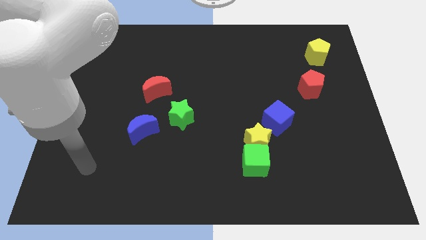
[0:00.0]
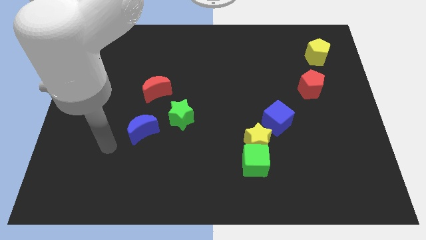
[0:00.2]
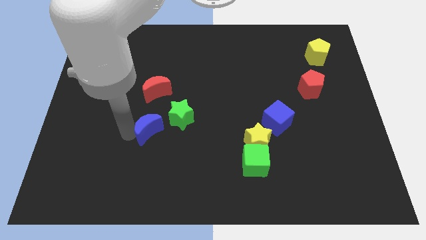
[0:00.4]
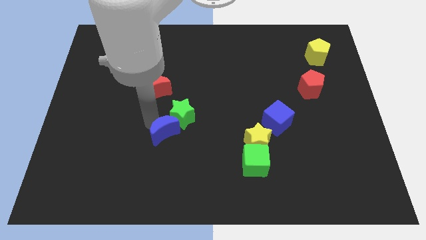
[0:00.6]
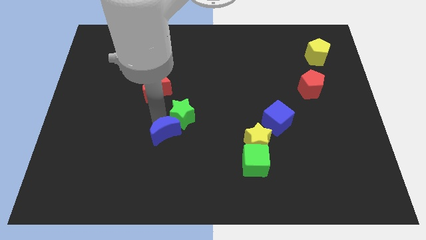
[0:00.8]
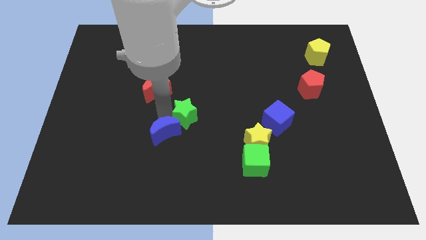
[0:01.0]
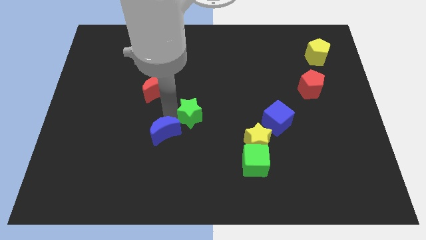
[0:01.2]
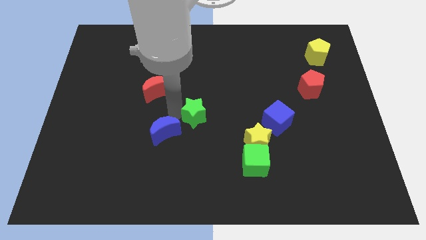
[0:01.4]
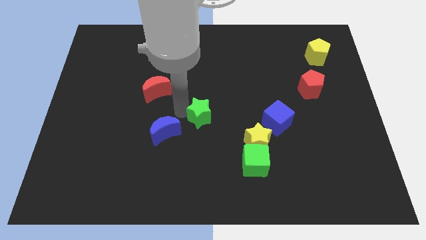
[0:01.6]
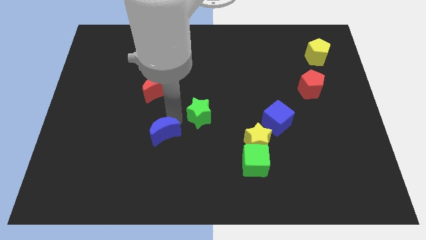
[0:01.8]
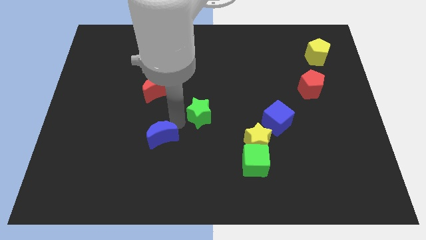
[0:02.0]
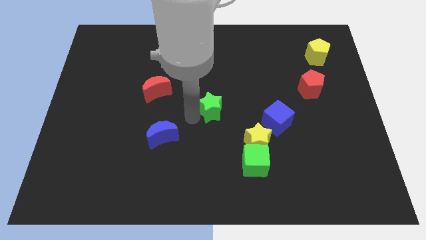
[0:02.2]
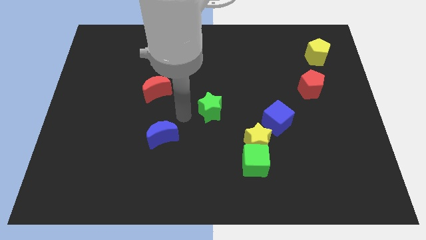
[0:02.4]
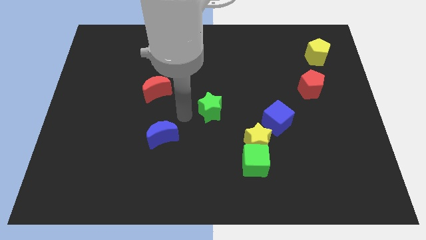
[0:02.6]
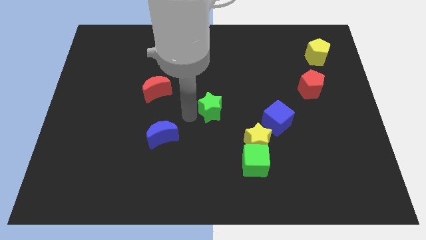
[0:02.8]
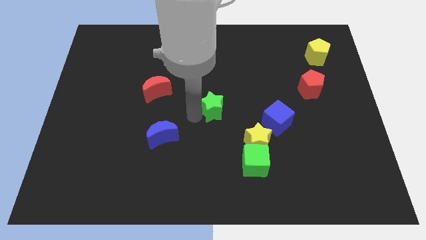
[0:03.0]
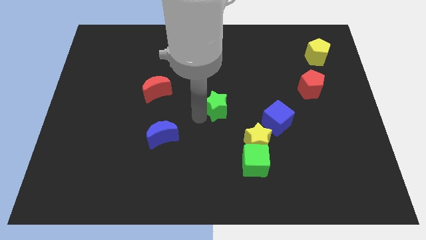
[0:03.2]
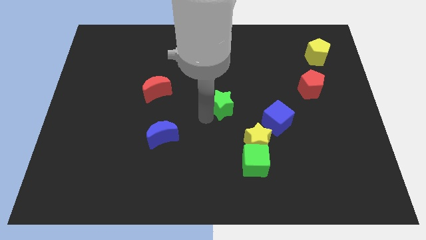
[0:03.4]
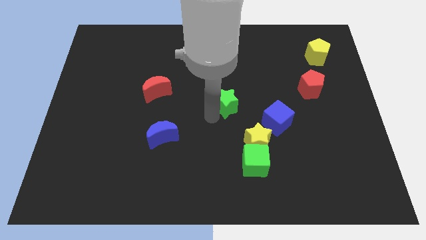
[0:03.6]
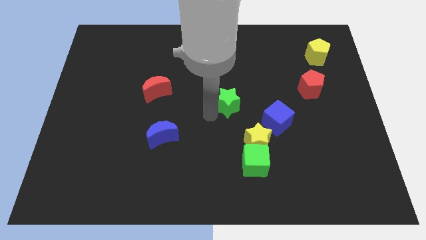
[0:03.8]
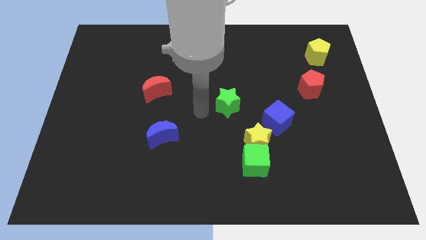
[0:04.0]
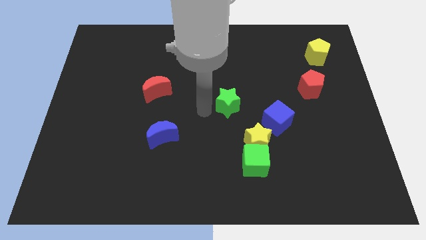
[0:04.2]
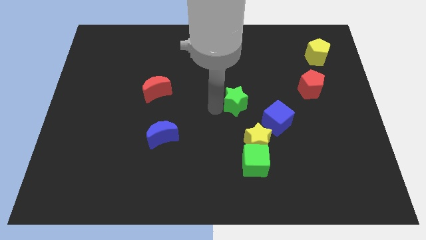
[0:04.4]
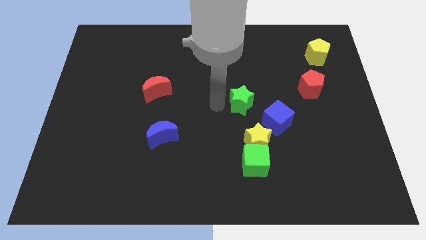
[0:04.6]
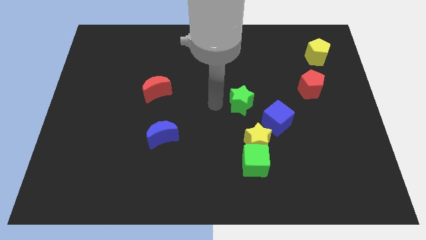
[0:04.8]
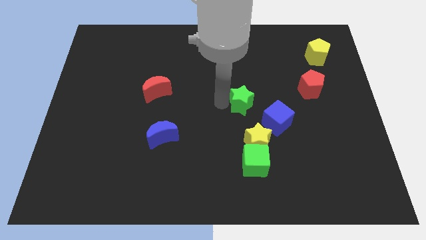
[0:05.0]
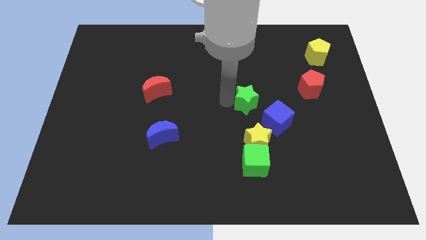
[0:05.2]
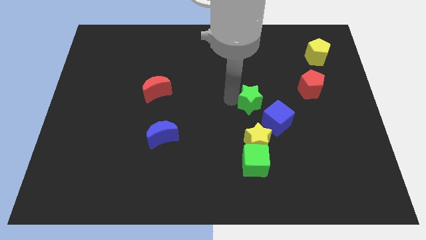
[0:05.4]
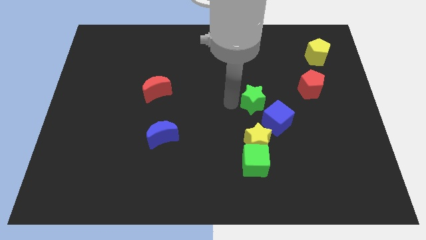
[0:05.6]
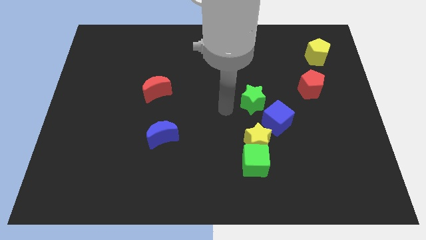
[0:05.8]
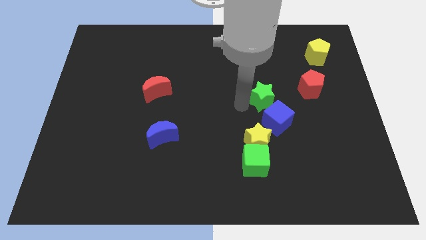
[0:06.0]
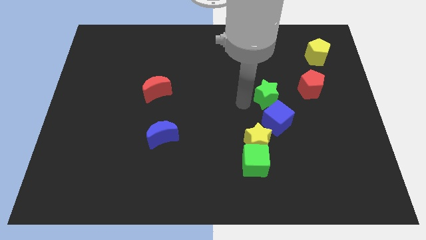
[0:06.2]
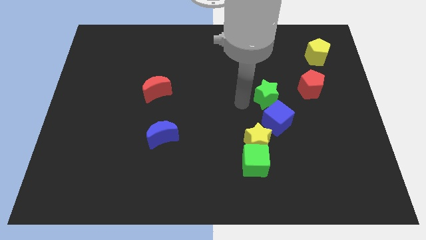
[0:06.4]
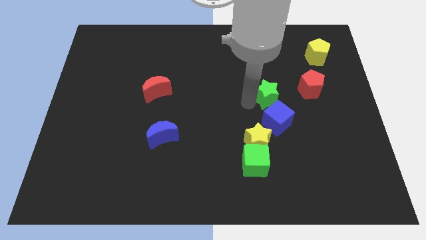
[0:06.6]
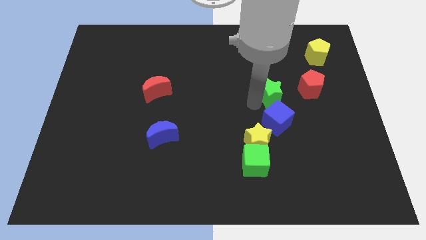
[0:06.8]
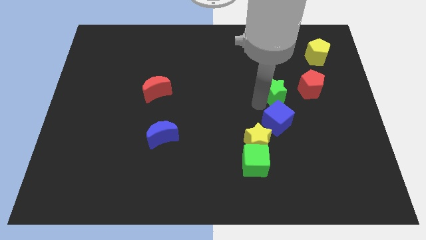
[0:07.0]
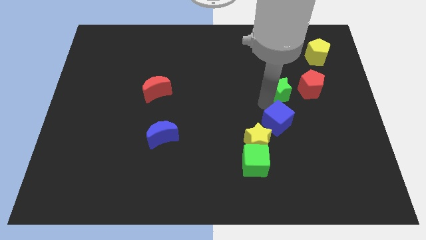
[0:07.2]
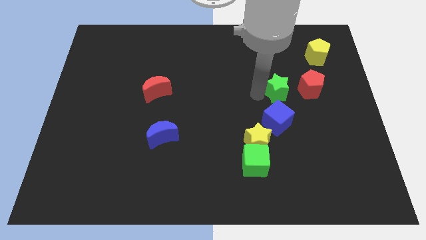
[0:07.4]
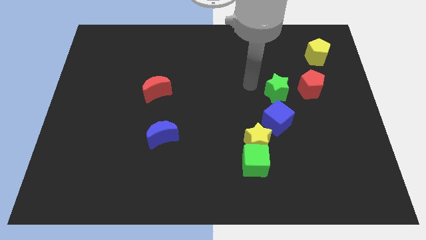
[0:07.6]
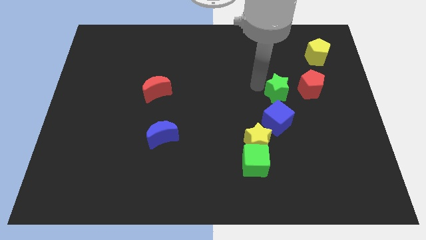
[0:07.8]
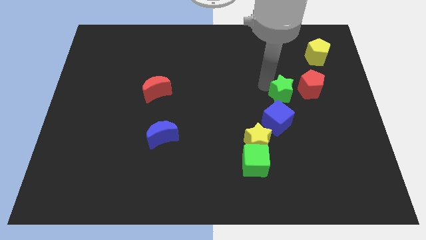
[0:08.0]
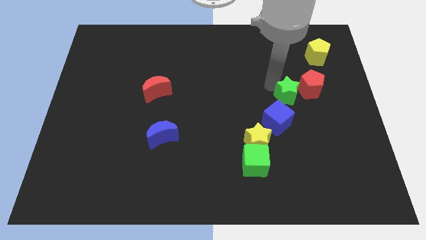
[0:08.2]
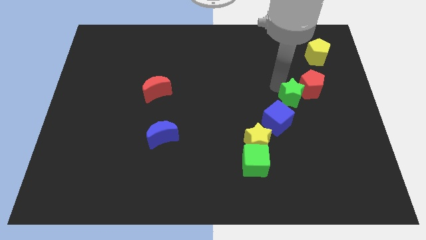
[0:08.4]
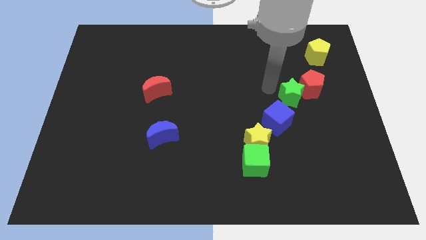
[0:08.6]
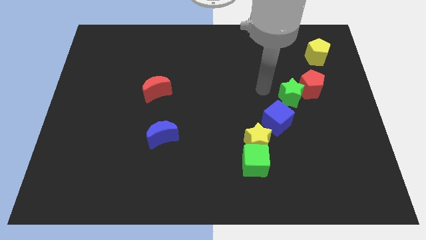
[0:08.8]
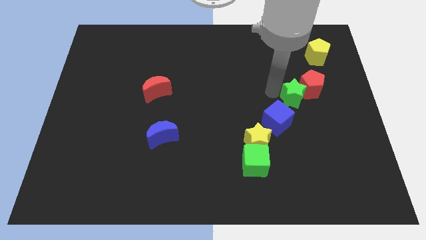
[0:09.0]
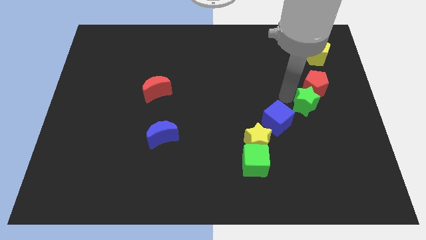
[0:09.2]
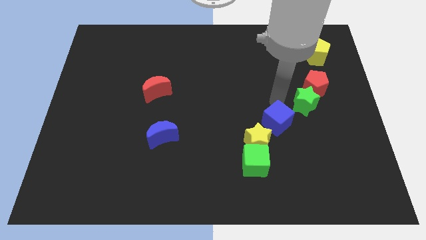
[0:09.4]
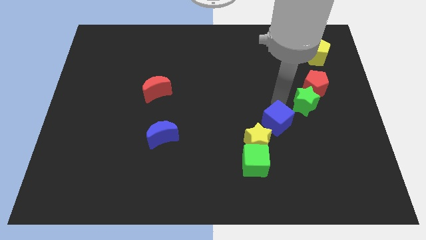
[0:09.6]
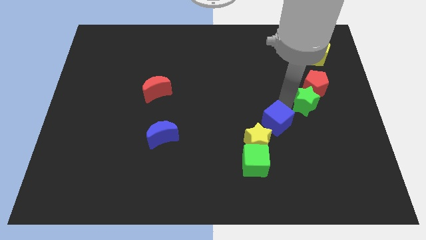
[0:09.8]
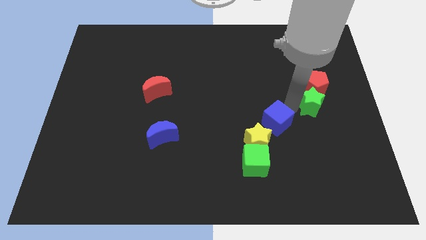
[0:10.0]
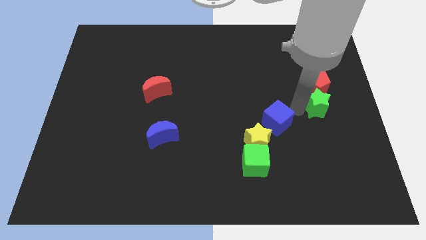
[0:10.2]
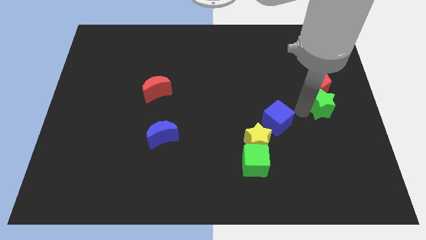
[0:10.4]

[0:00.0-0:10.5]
move the green star to the center right

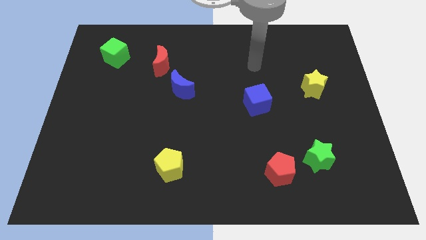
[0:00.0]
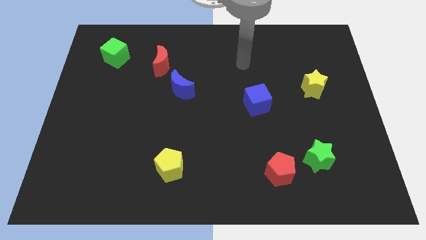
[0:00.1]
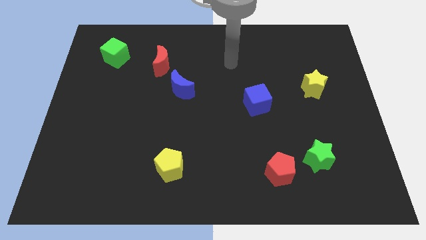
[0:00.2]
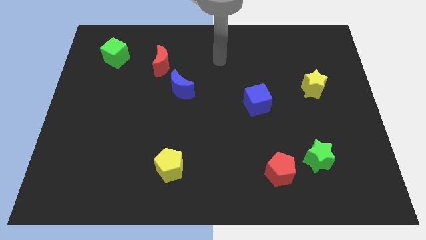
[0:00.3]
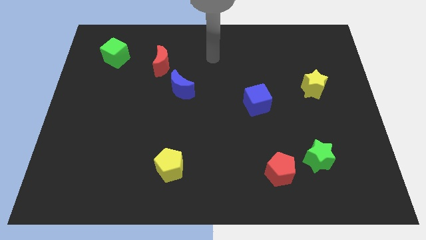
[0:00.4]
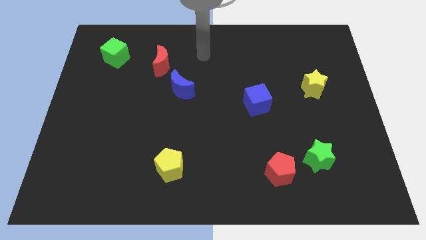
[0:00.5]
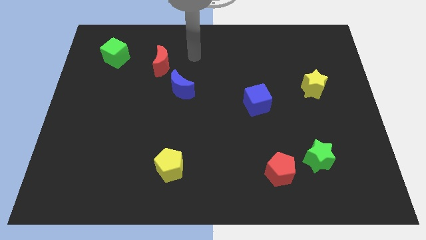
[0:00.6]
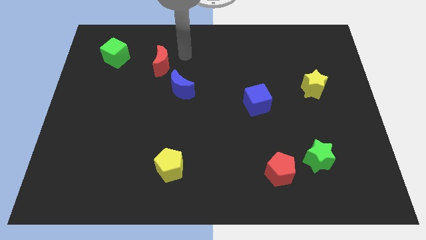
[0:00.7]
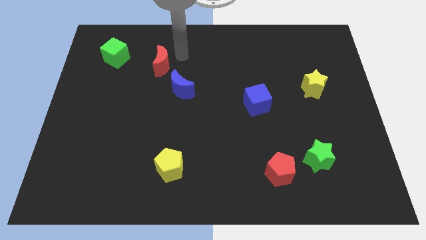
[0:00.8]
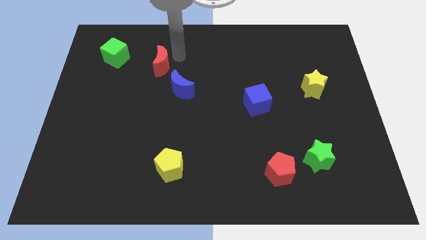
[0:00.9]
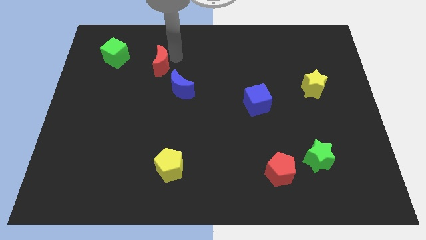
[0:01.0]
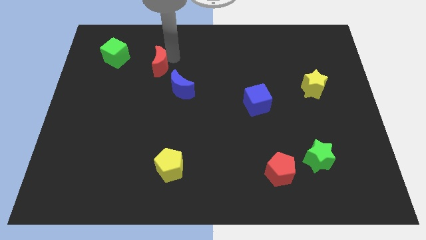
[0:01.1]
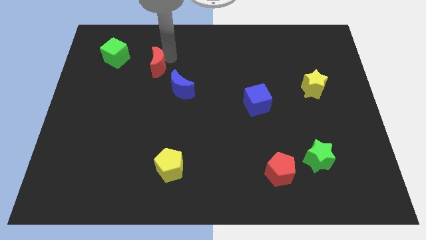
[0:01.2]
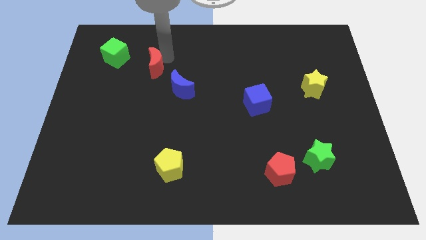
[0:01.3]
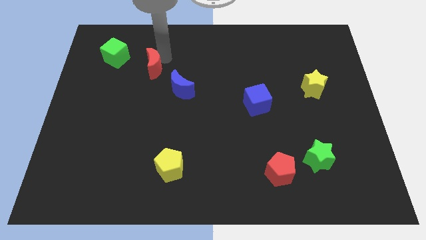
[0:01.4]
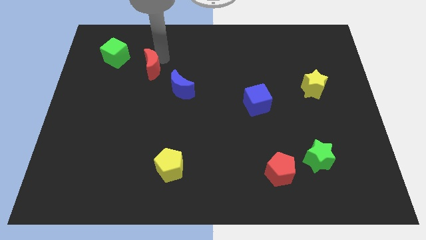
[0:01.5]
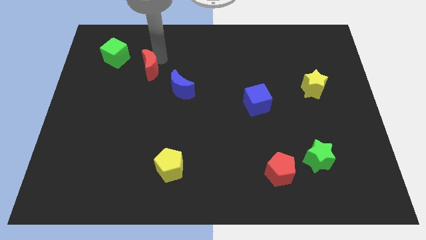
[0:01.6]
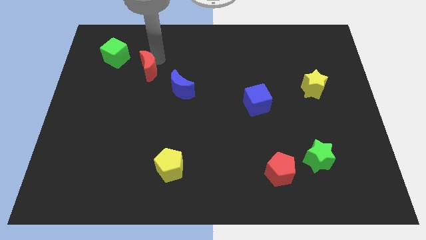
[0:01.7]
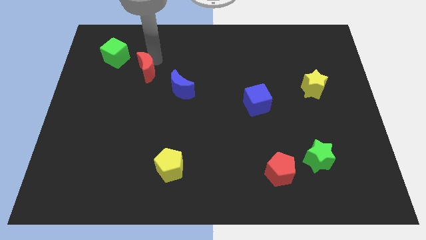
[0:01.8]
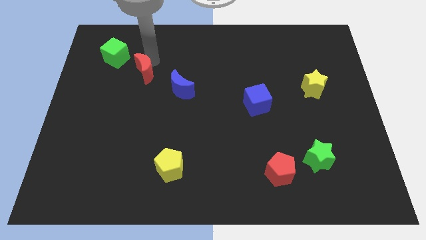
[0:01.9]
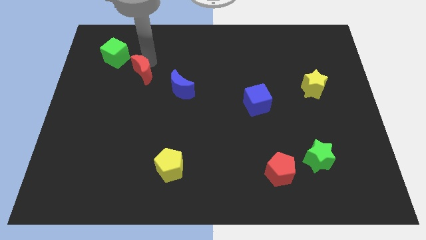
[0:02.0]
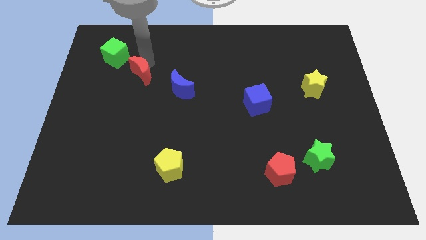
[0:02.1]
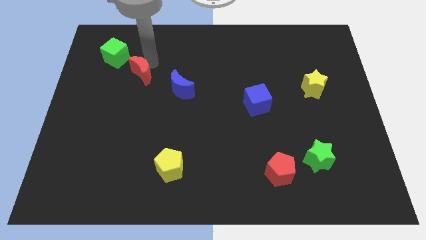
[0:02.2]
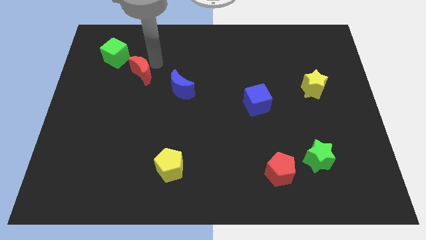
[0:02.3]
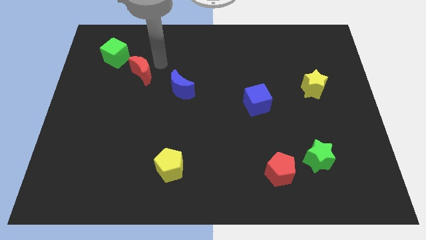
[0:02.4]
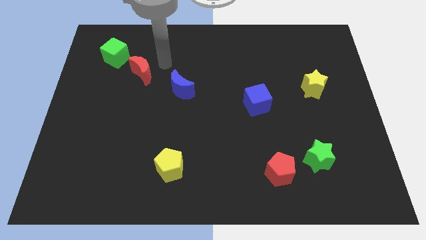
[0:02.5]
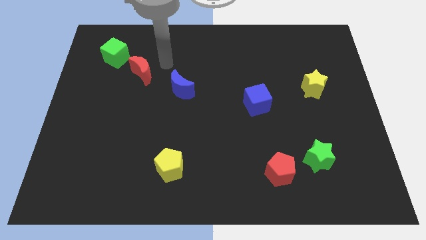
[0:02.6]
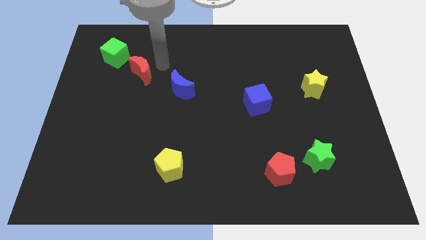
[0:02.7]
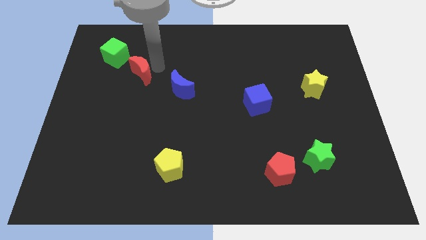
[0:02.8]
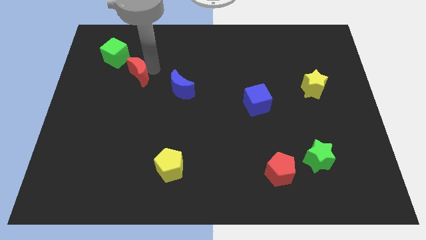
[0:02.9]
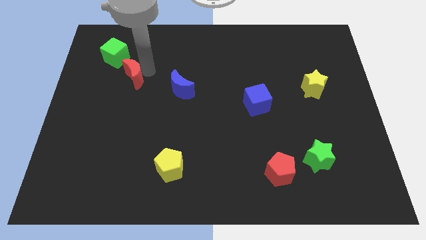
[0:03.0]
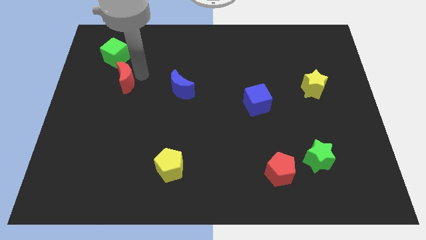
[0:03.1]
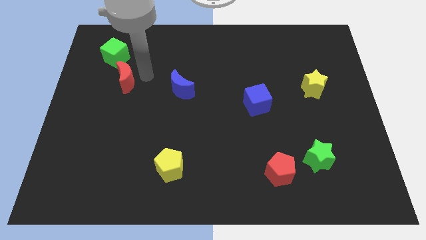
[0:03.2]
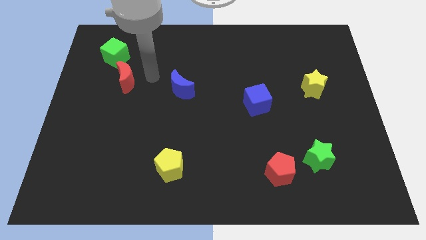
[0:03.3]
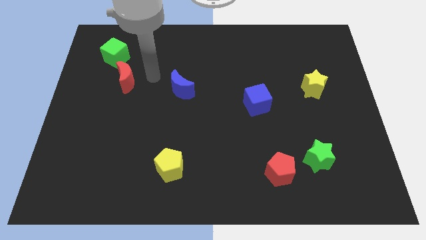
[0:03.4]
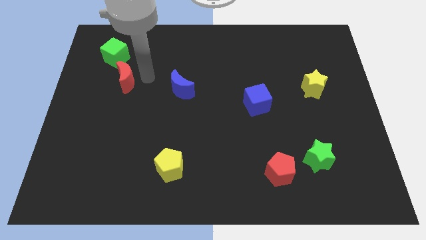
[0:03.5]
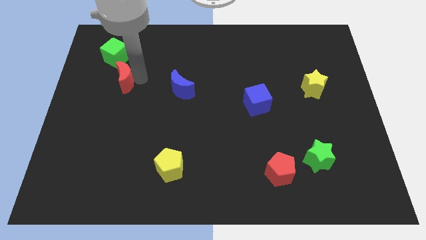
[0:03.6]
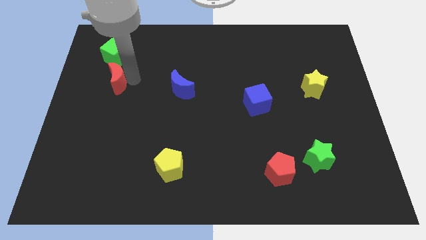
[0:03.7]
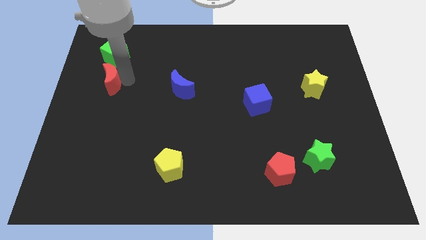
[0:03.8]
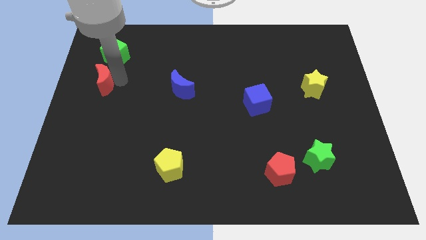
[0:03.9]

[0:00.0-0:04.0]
push the red moon to the left side of the board
